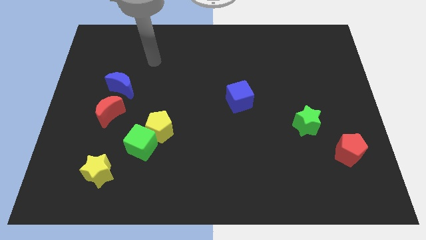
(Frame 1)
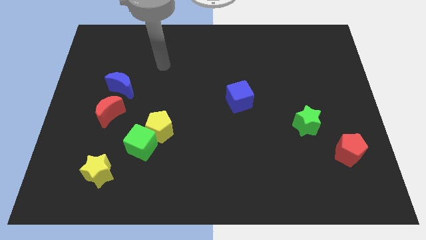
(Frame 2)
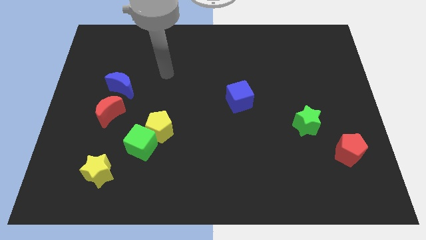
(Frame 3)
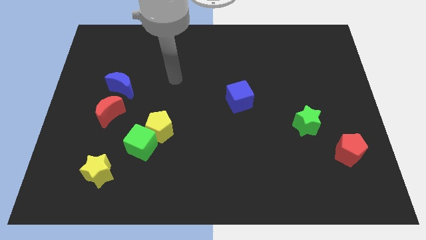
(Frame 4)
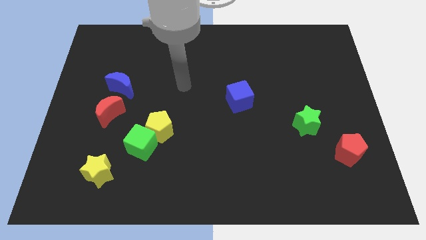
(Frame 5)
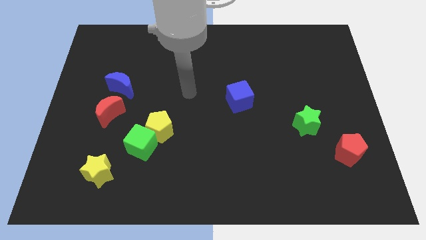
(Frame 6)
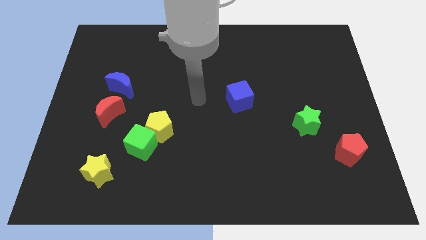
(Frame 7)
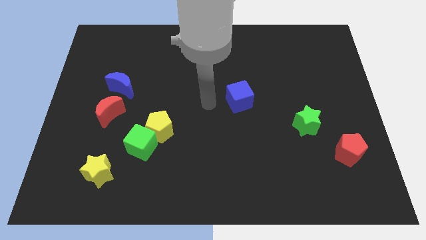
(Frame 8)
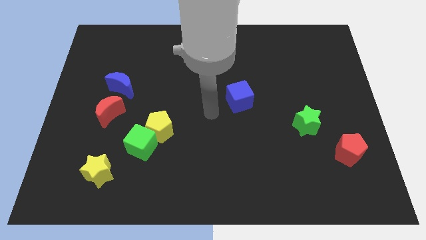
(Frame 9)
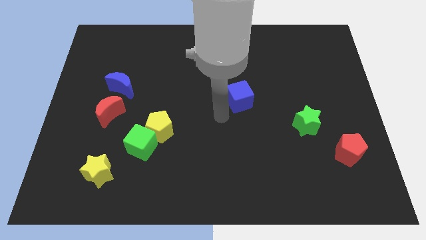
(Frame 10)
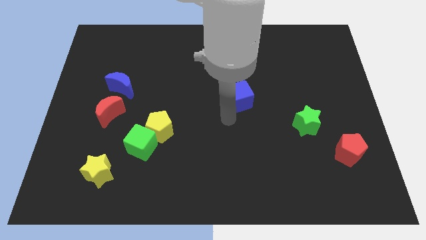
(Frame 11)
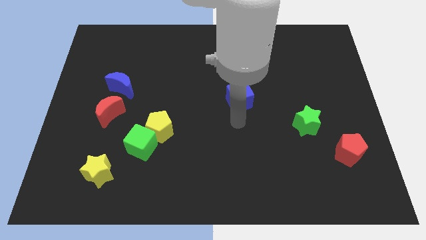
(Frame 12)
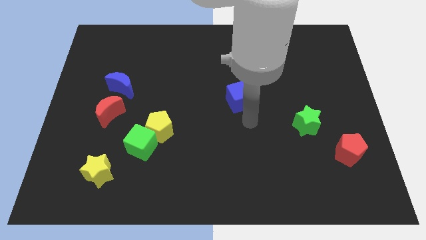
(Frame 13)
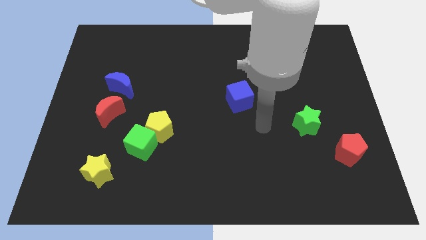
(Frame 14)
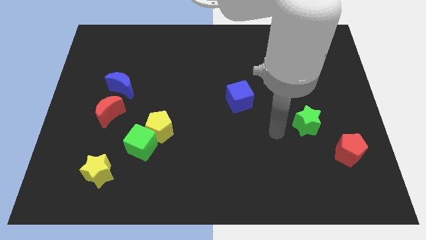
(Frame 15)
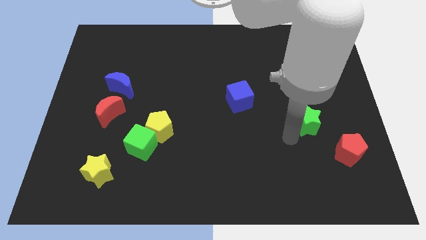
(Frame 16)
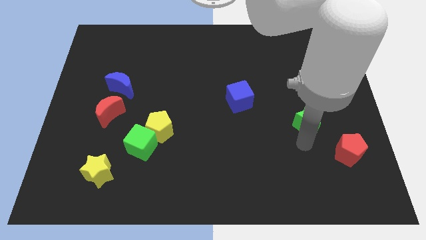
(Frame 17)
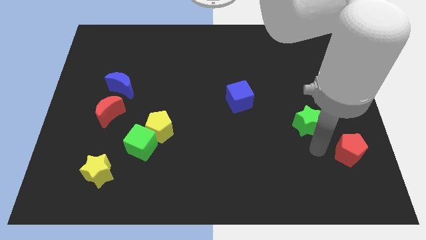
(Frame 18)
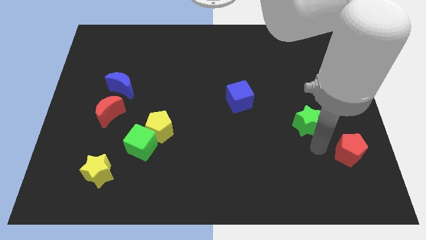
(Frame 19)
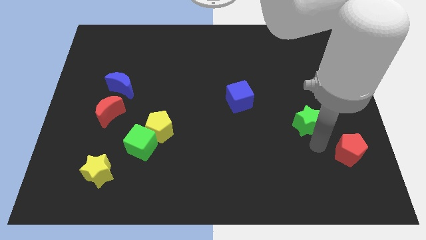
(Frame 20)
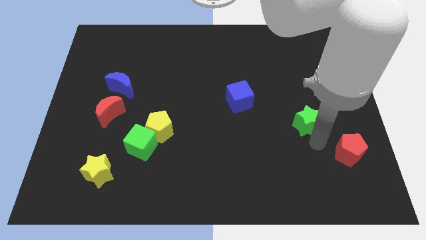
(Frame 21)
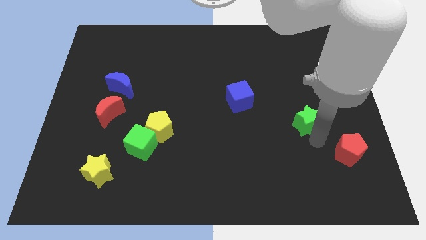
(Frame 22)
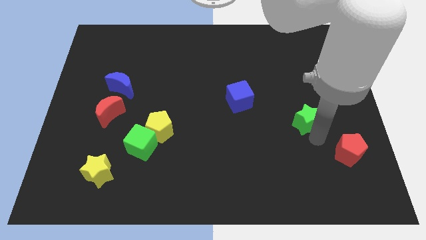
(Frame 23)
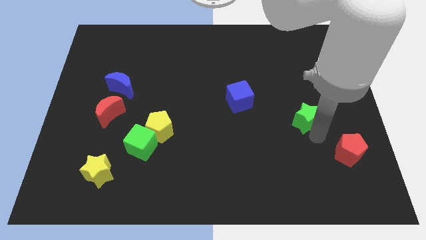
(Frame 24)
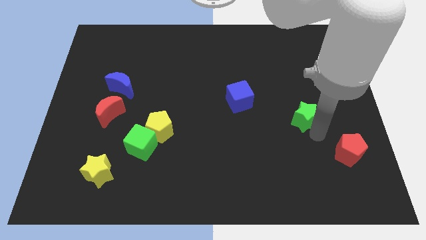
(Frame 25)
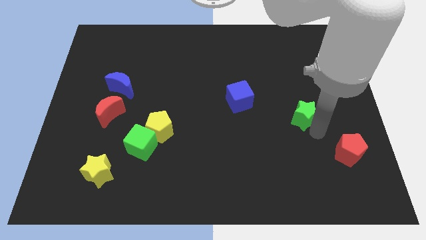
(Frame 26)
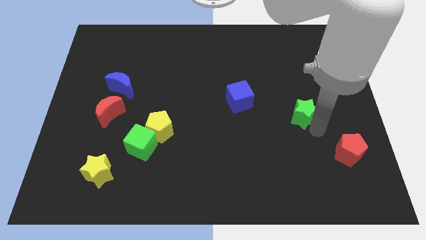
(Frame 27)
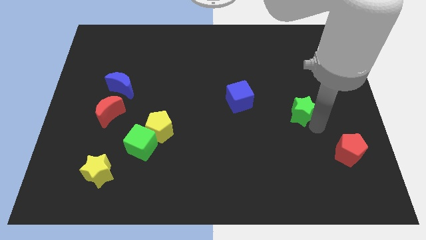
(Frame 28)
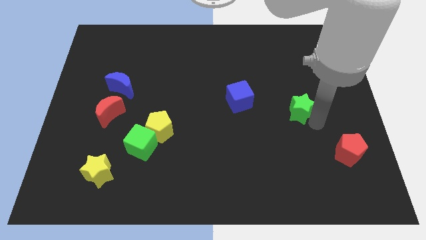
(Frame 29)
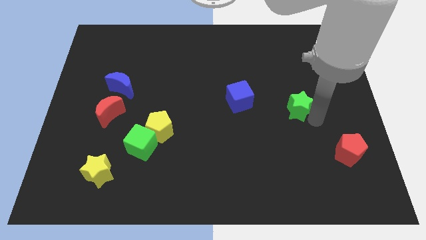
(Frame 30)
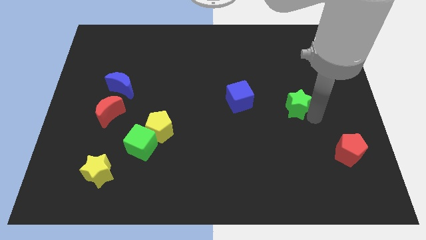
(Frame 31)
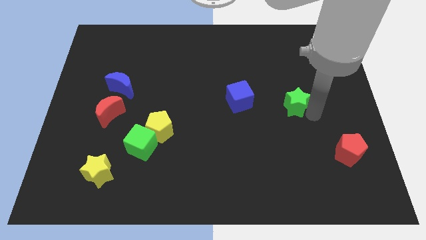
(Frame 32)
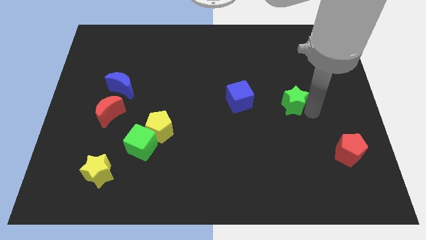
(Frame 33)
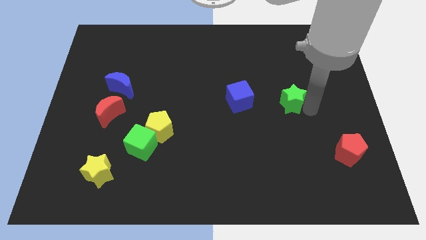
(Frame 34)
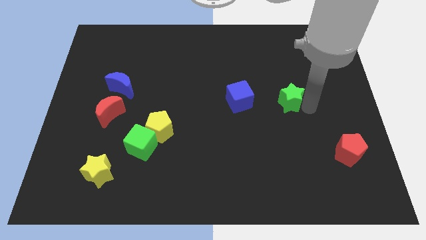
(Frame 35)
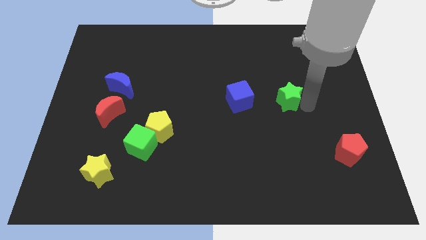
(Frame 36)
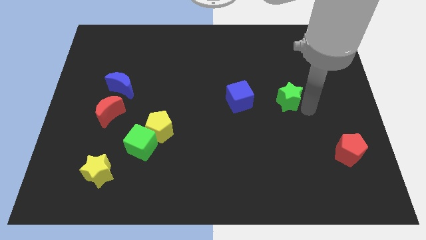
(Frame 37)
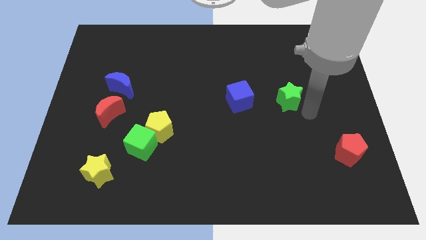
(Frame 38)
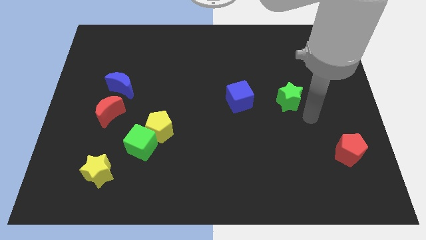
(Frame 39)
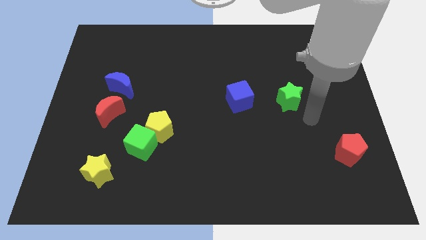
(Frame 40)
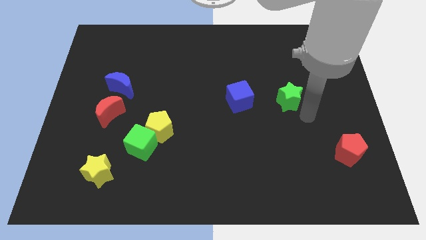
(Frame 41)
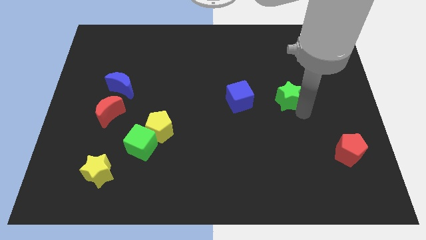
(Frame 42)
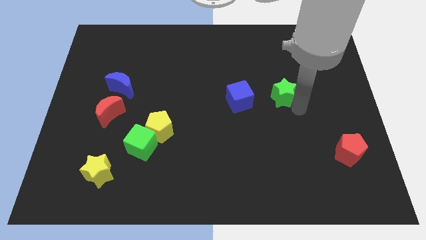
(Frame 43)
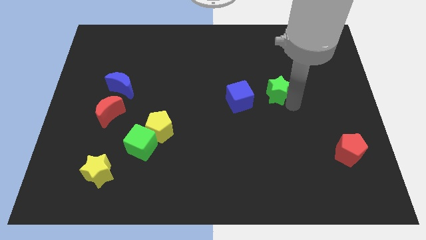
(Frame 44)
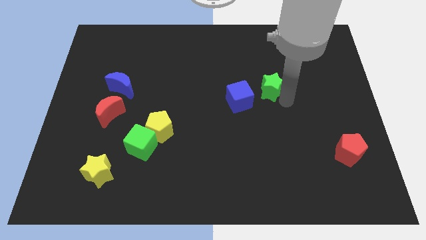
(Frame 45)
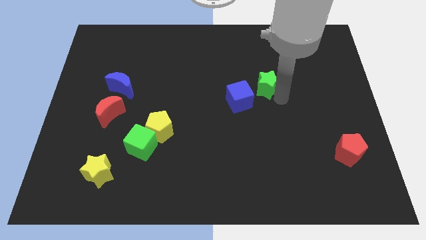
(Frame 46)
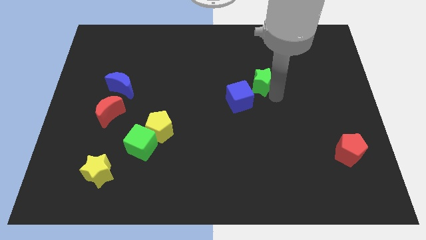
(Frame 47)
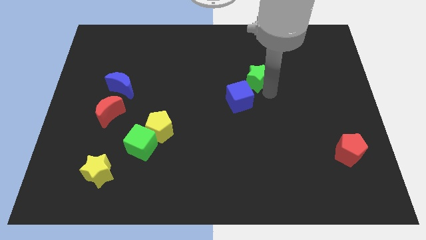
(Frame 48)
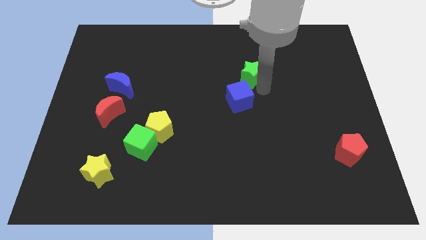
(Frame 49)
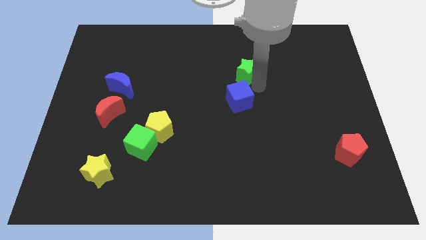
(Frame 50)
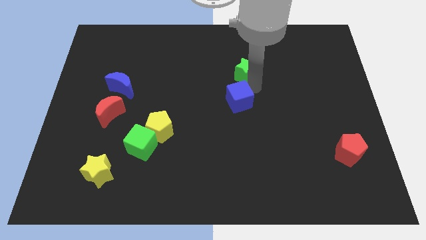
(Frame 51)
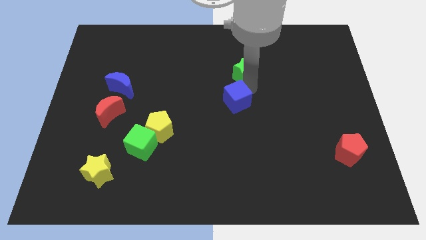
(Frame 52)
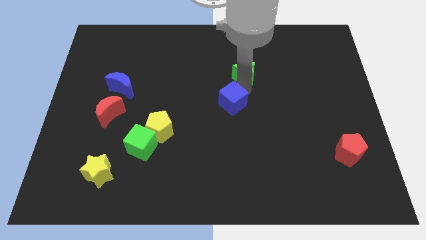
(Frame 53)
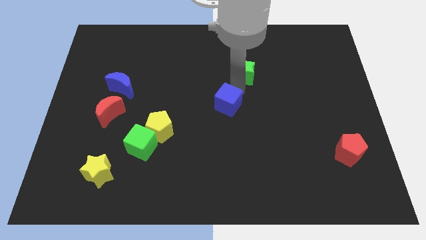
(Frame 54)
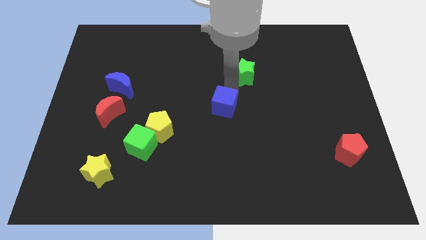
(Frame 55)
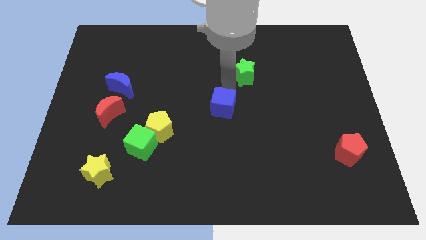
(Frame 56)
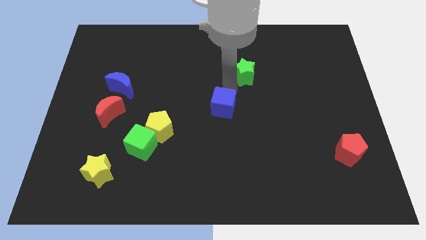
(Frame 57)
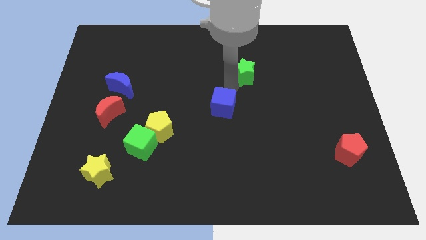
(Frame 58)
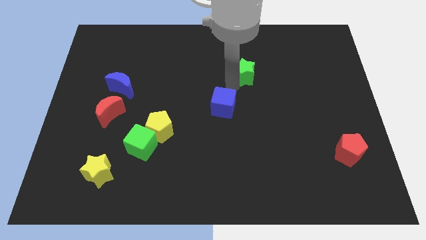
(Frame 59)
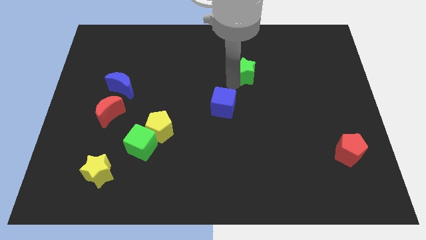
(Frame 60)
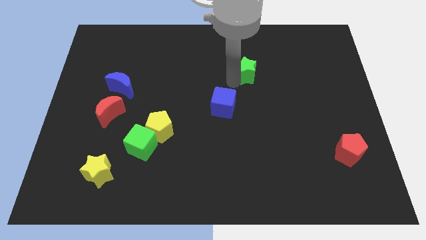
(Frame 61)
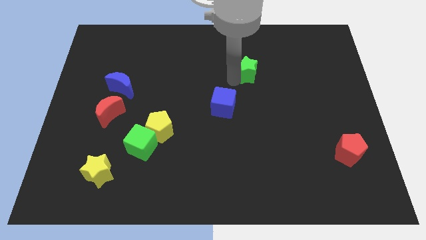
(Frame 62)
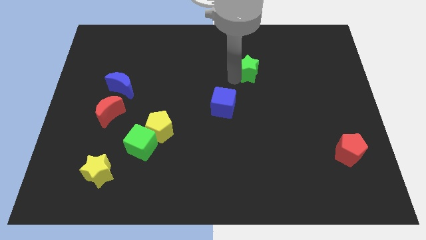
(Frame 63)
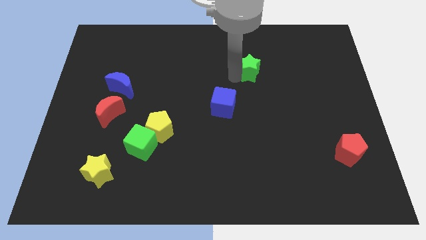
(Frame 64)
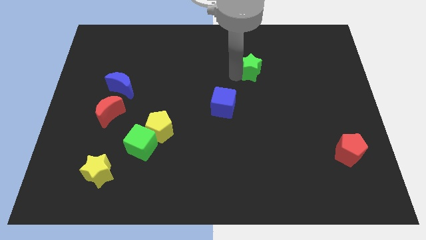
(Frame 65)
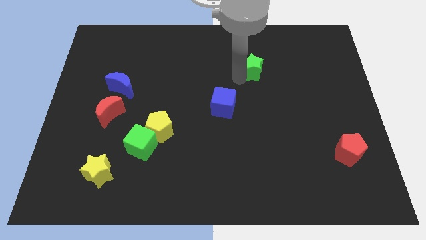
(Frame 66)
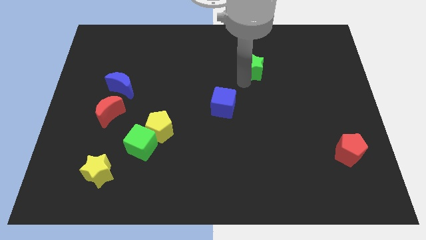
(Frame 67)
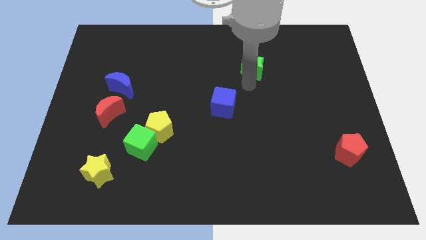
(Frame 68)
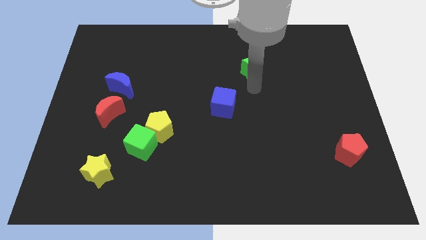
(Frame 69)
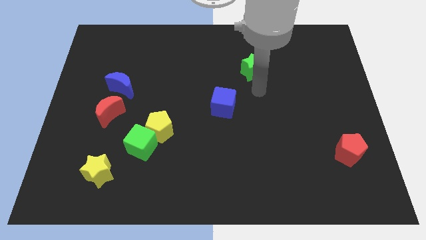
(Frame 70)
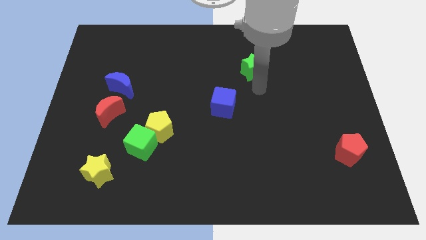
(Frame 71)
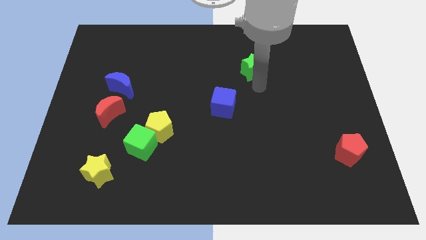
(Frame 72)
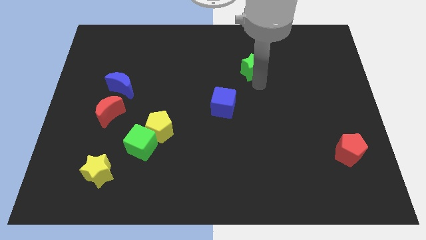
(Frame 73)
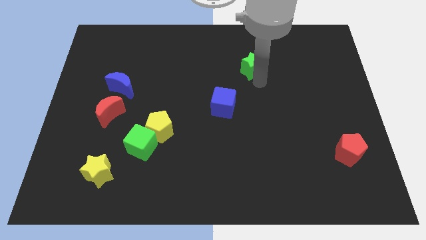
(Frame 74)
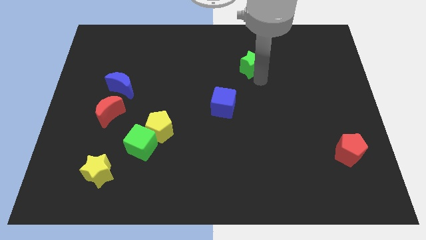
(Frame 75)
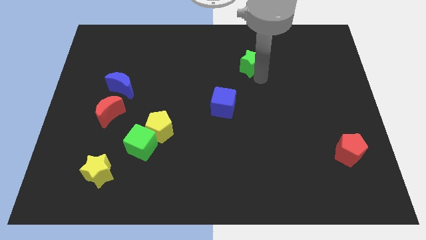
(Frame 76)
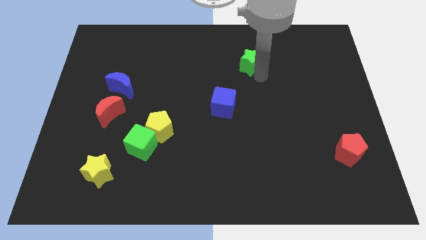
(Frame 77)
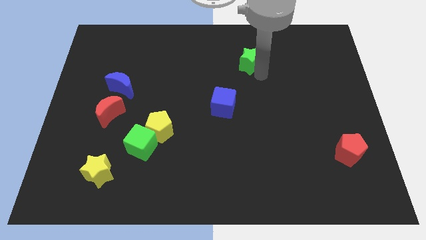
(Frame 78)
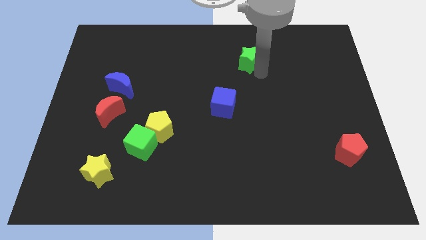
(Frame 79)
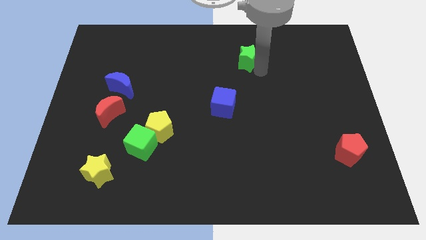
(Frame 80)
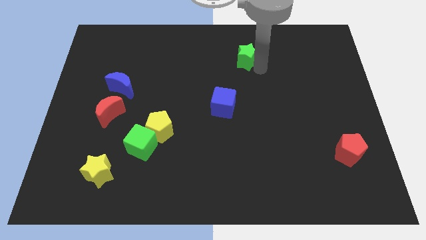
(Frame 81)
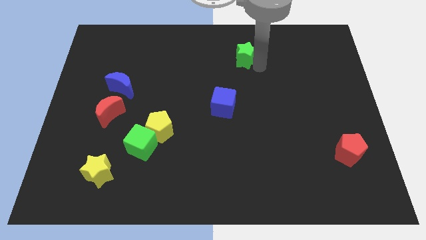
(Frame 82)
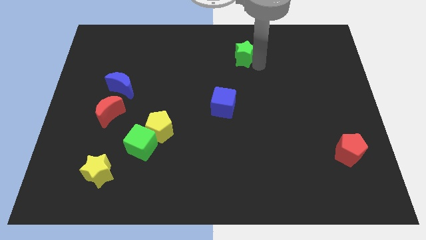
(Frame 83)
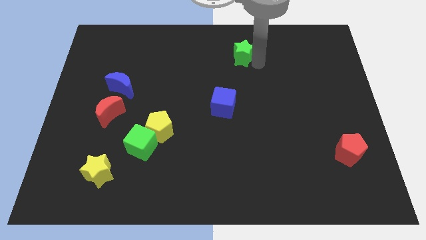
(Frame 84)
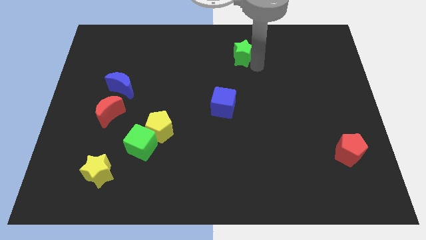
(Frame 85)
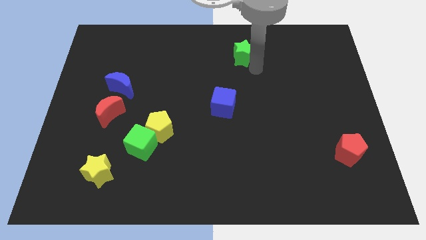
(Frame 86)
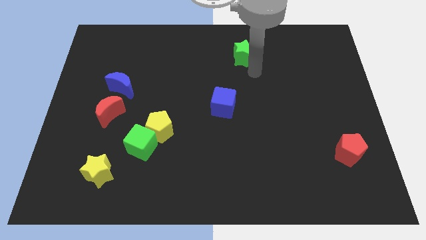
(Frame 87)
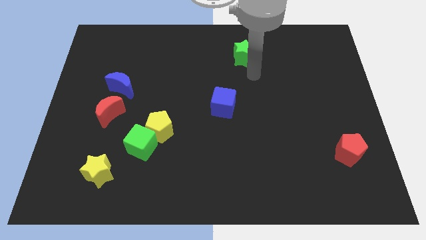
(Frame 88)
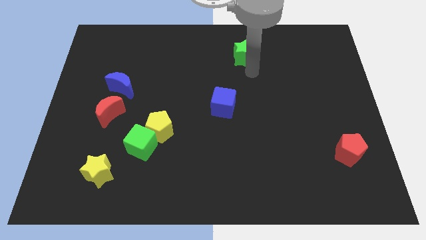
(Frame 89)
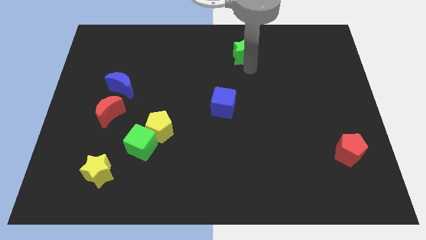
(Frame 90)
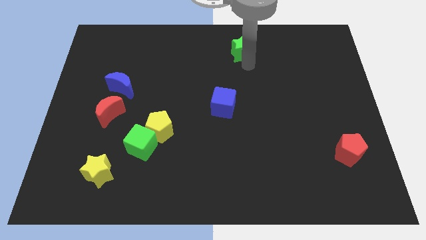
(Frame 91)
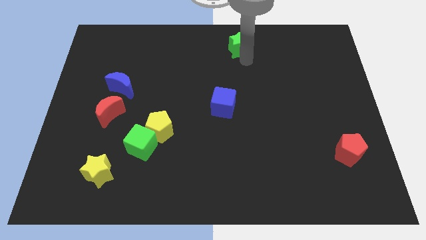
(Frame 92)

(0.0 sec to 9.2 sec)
push the green star to the towards your base
